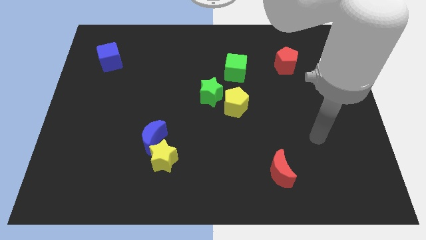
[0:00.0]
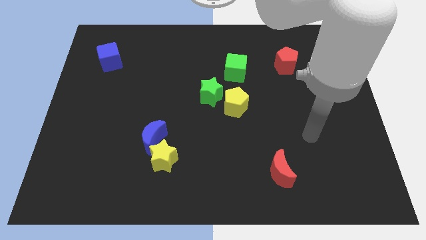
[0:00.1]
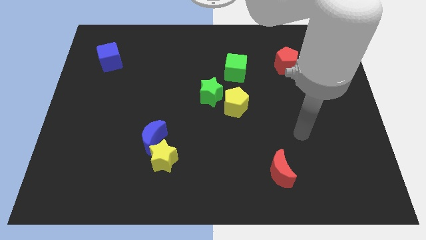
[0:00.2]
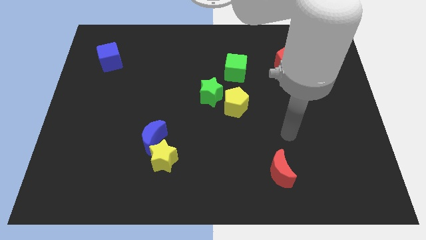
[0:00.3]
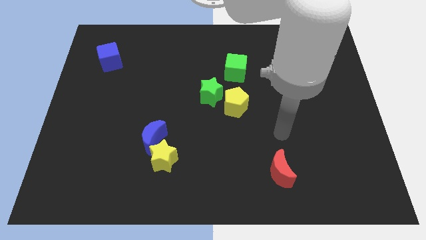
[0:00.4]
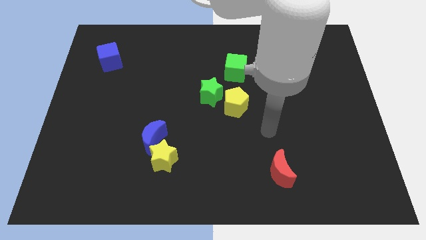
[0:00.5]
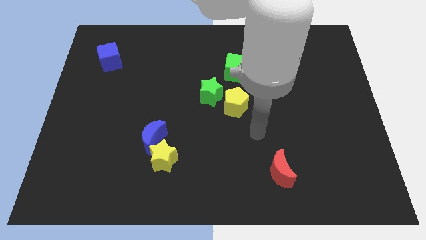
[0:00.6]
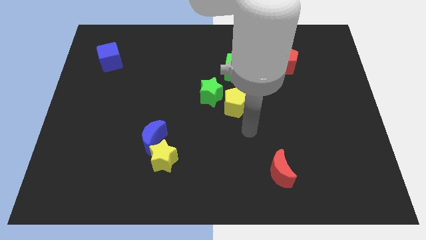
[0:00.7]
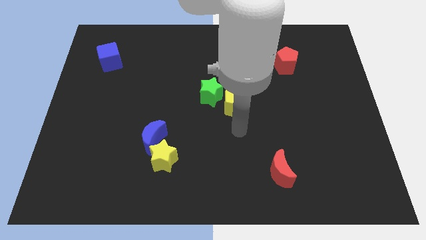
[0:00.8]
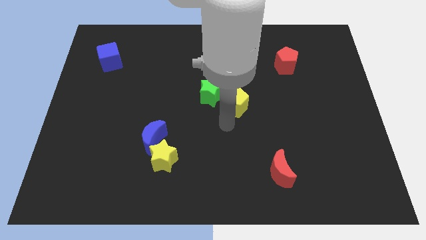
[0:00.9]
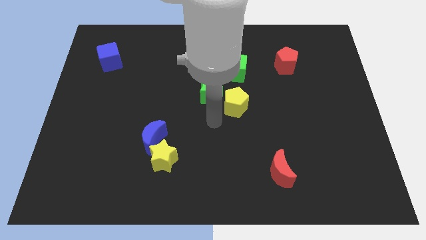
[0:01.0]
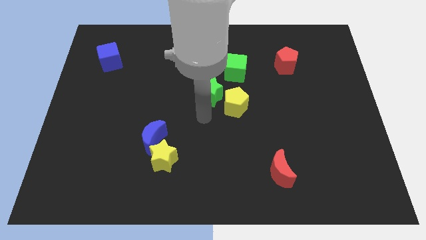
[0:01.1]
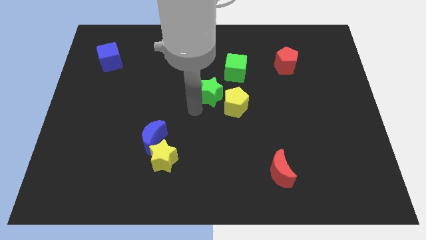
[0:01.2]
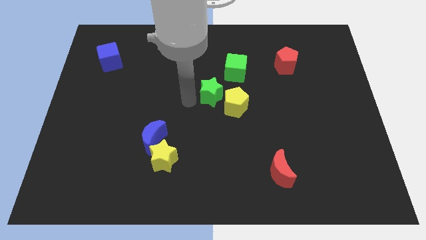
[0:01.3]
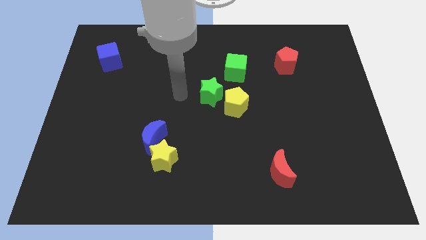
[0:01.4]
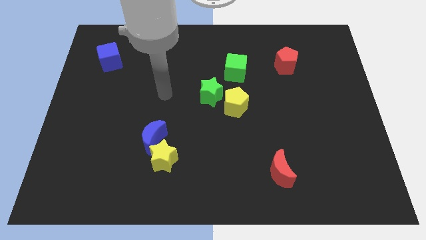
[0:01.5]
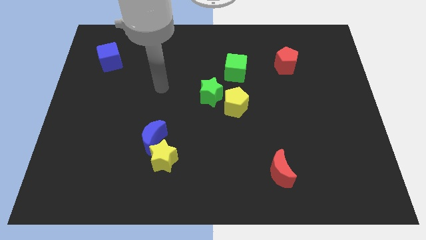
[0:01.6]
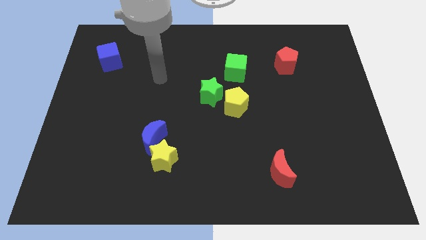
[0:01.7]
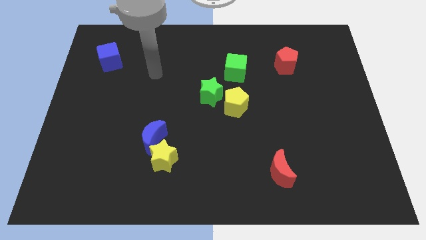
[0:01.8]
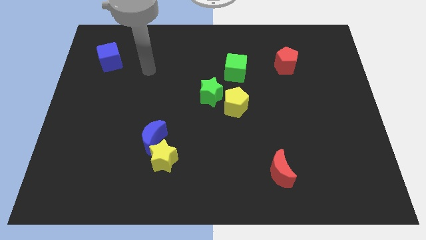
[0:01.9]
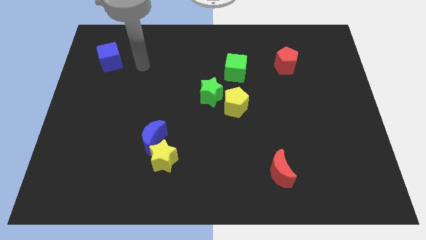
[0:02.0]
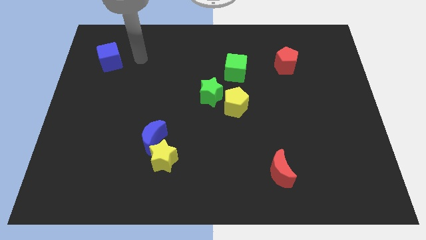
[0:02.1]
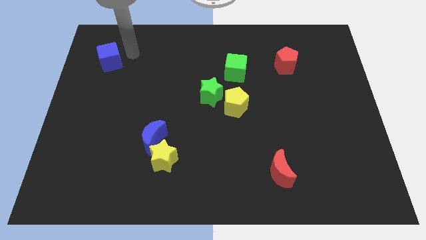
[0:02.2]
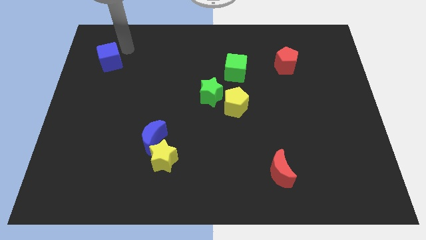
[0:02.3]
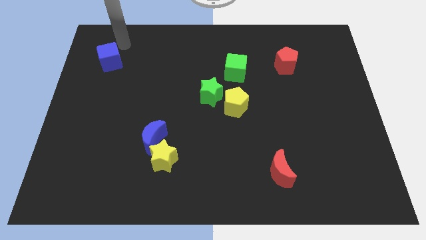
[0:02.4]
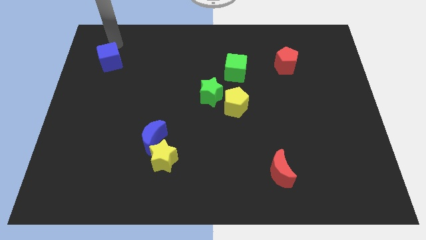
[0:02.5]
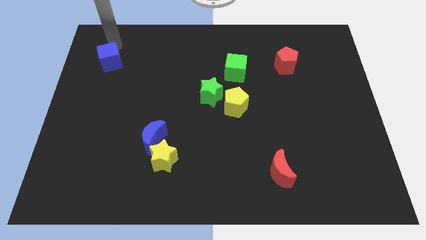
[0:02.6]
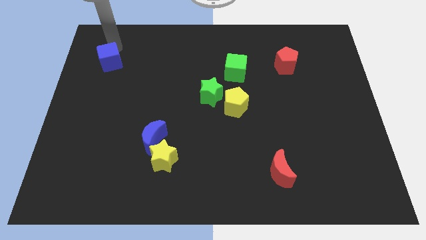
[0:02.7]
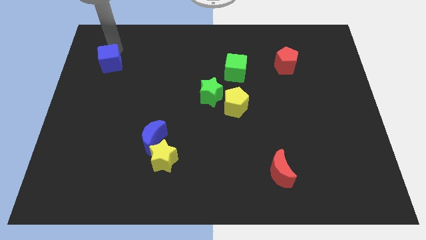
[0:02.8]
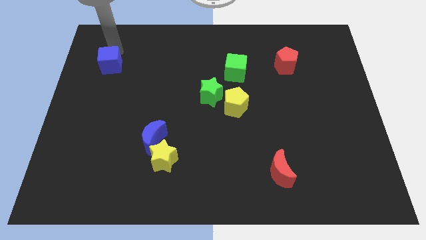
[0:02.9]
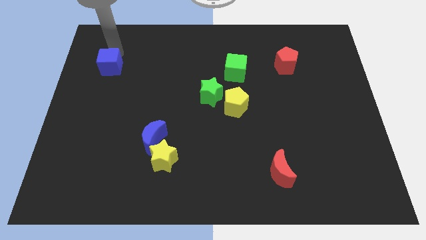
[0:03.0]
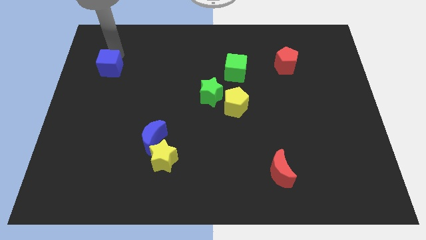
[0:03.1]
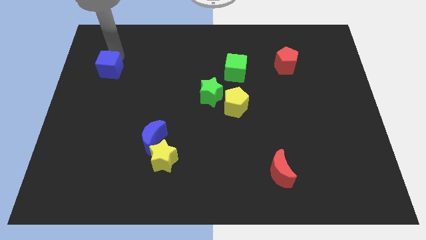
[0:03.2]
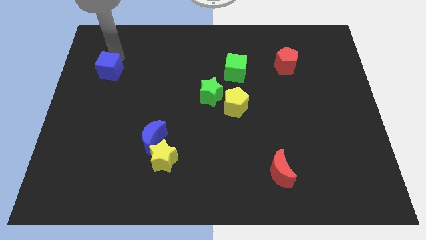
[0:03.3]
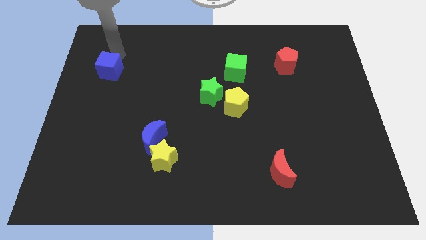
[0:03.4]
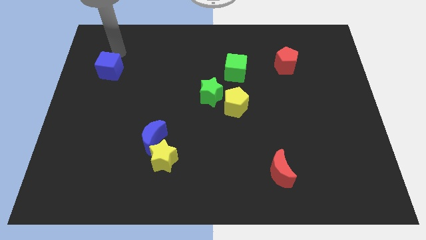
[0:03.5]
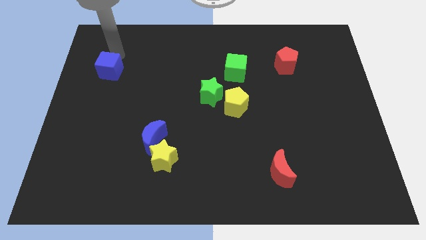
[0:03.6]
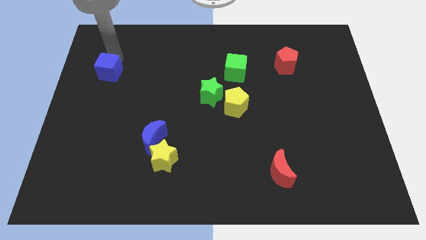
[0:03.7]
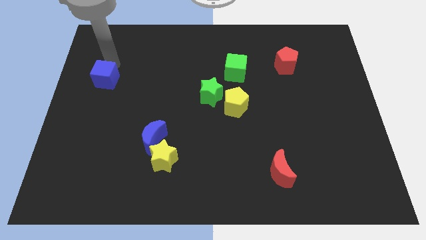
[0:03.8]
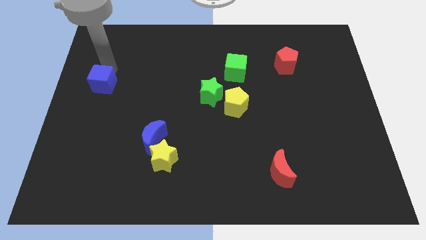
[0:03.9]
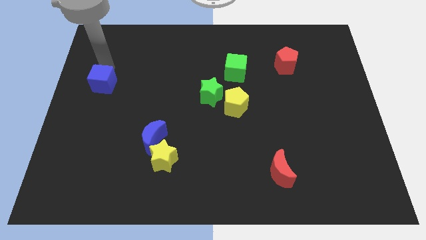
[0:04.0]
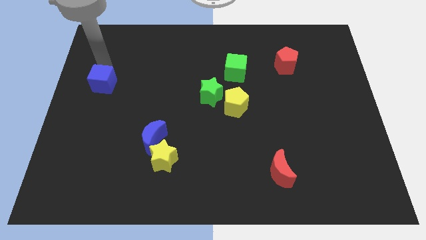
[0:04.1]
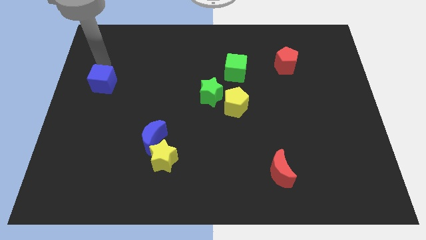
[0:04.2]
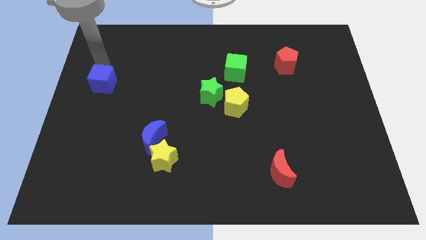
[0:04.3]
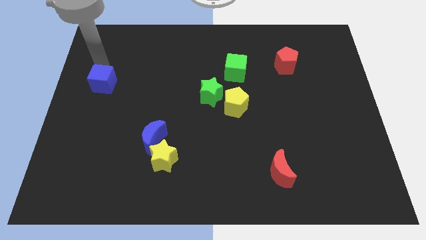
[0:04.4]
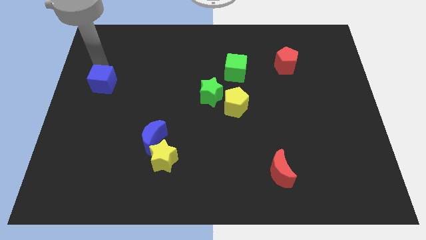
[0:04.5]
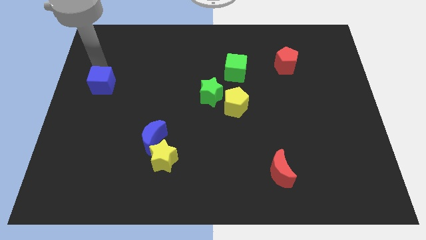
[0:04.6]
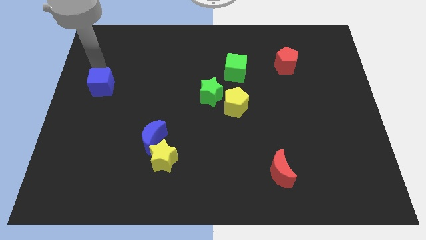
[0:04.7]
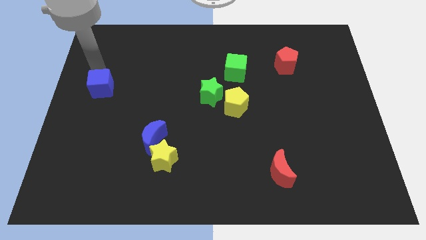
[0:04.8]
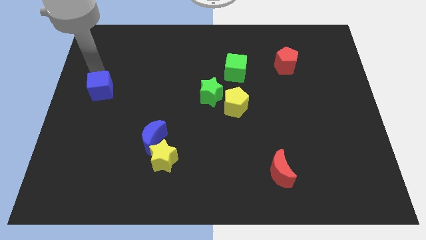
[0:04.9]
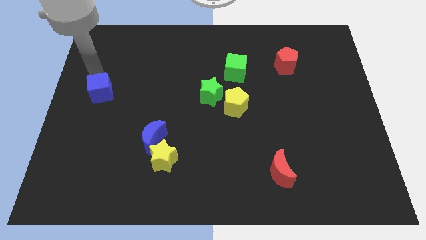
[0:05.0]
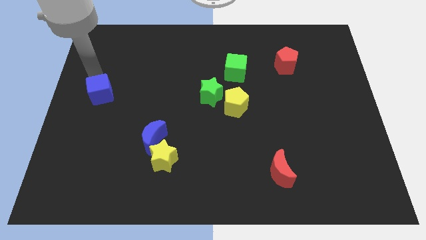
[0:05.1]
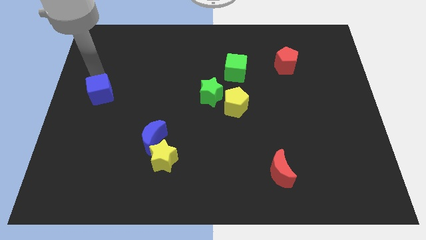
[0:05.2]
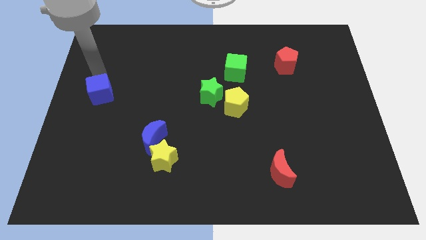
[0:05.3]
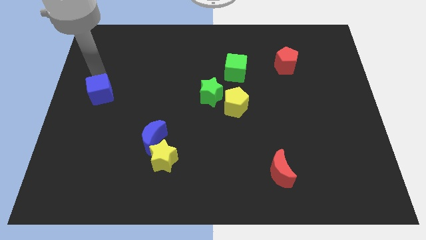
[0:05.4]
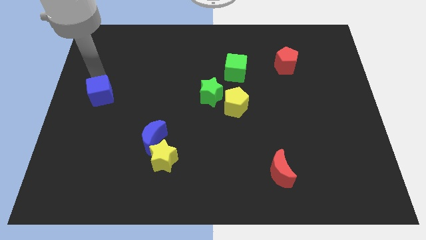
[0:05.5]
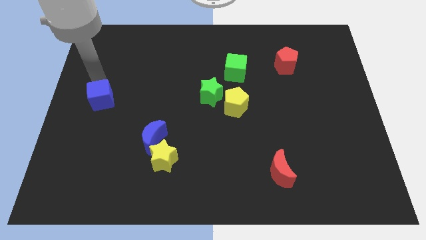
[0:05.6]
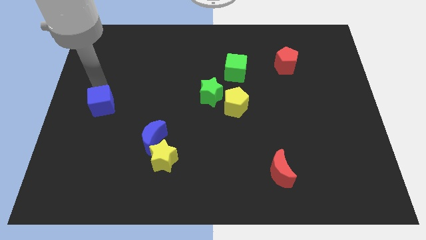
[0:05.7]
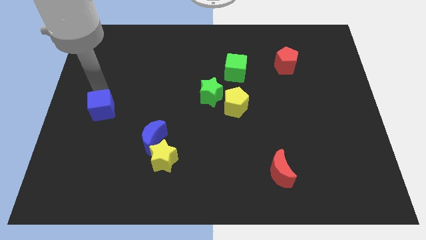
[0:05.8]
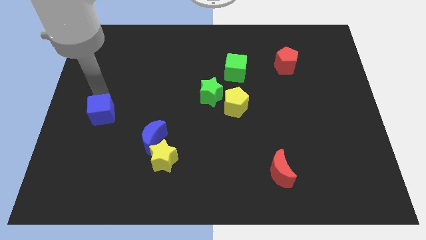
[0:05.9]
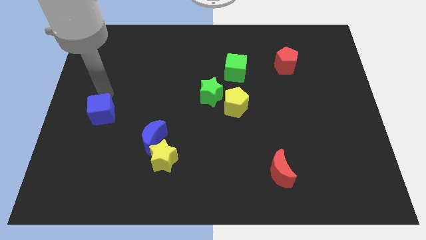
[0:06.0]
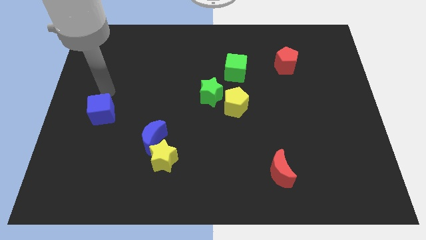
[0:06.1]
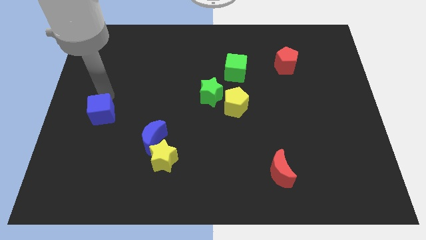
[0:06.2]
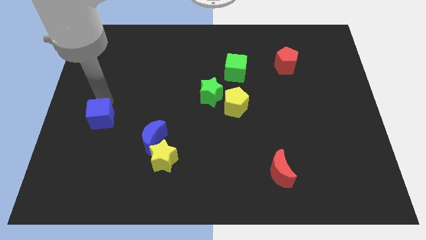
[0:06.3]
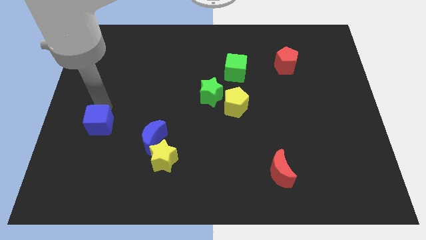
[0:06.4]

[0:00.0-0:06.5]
move the blue cube down

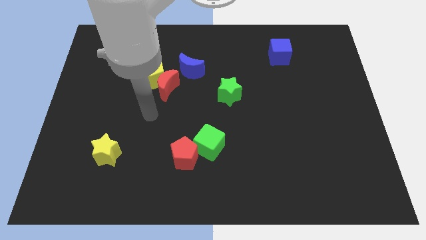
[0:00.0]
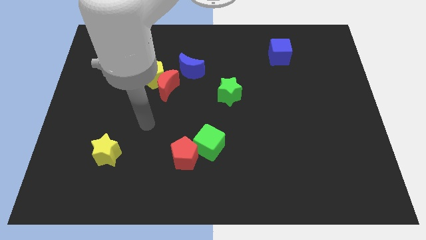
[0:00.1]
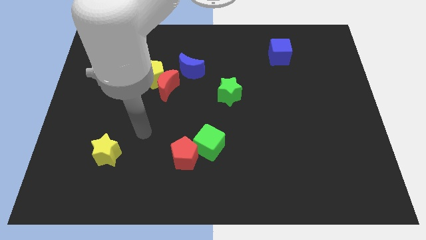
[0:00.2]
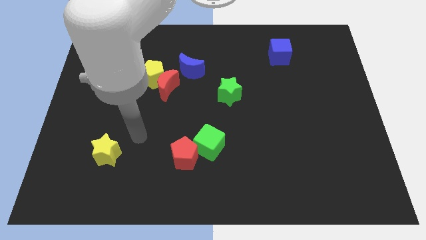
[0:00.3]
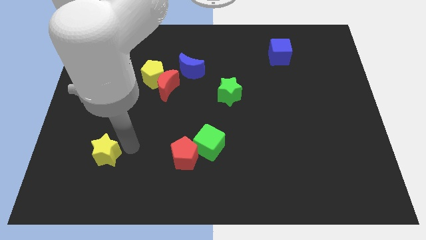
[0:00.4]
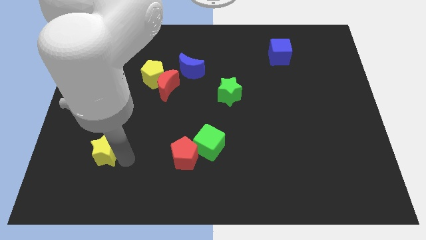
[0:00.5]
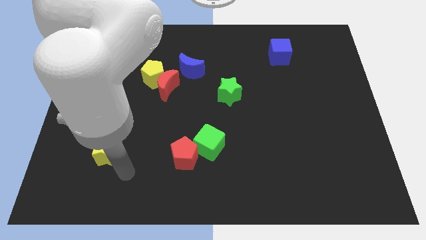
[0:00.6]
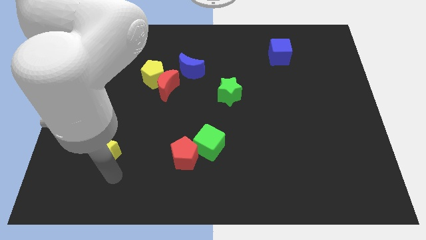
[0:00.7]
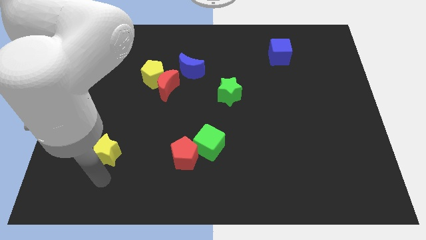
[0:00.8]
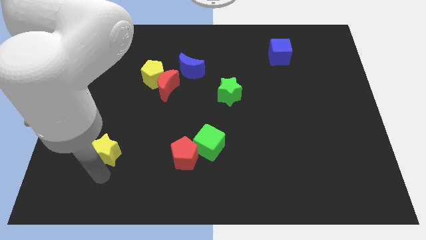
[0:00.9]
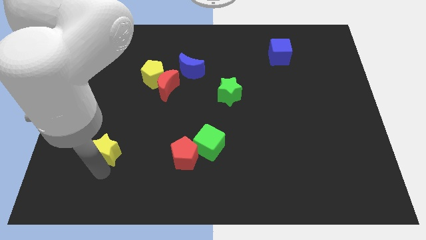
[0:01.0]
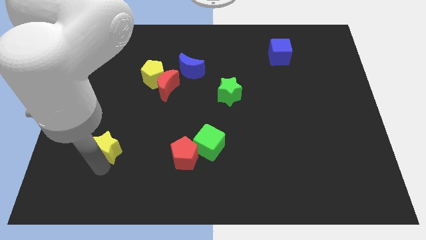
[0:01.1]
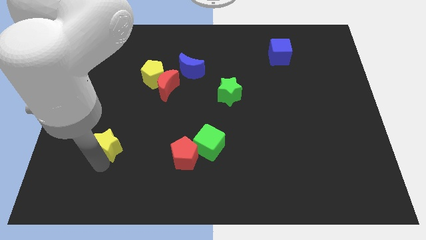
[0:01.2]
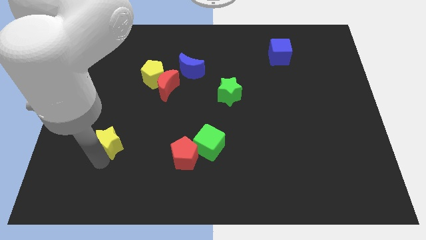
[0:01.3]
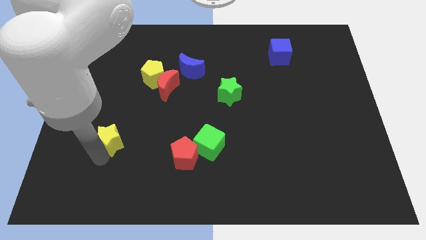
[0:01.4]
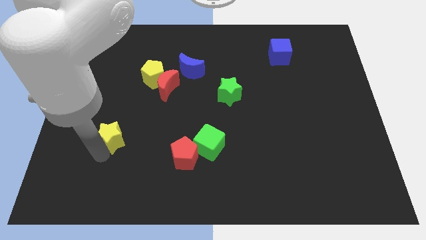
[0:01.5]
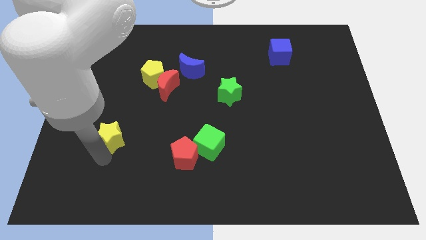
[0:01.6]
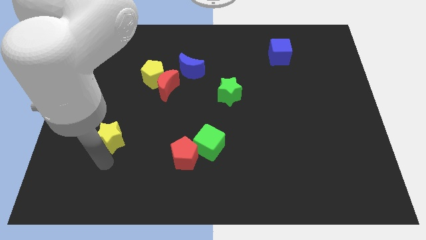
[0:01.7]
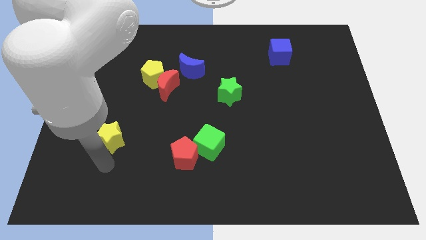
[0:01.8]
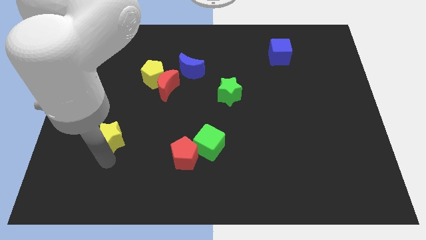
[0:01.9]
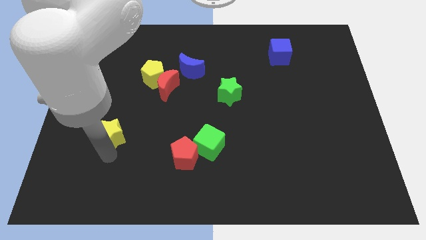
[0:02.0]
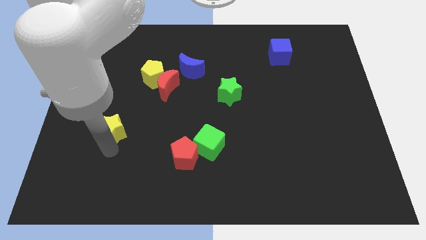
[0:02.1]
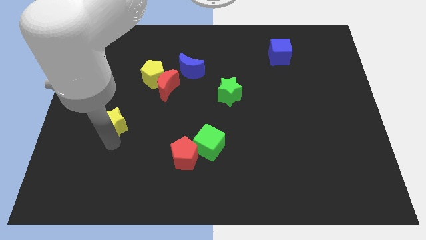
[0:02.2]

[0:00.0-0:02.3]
slightly slide the yellow star up
